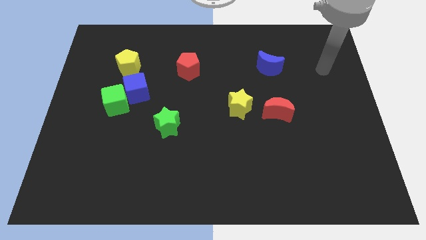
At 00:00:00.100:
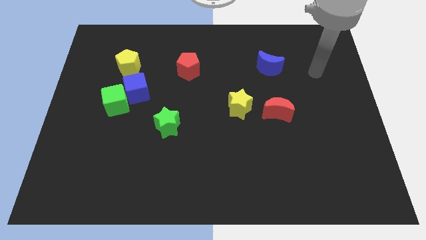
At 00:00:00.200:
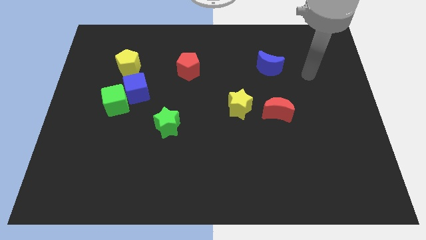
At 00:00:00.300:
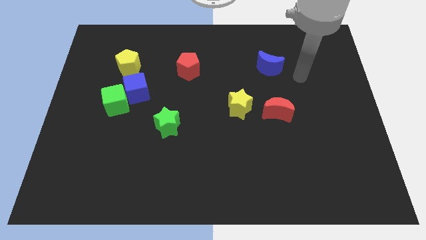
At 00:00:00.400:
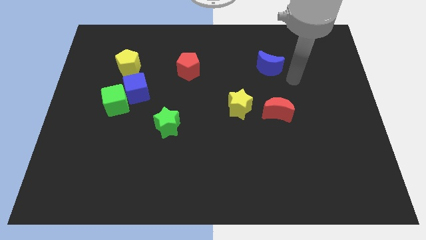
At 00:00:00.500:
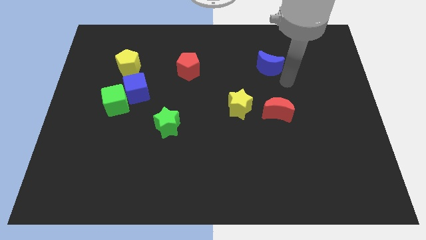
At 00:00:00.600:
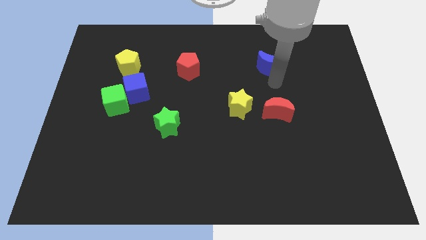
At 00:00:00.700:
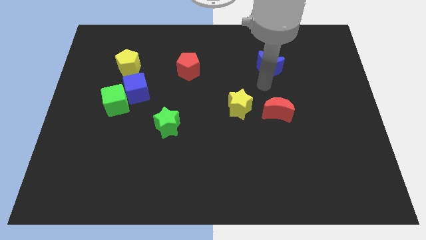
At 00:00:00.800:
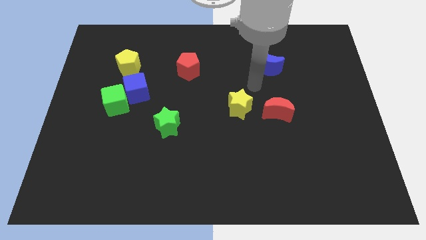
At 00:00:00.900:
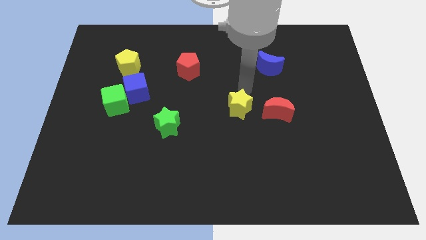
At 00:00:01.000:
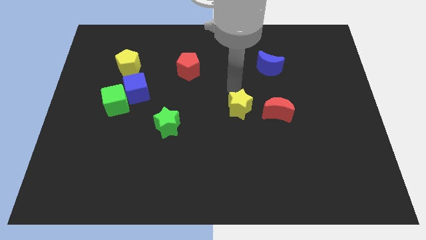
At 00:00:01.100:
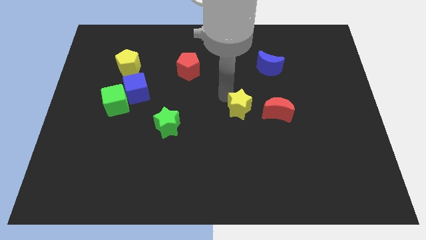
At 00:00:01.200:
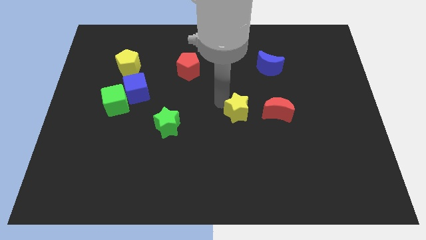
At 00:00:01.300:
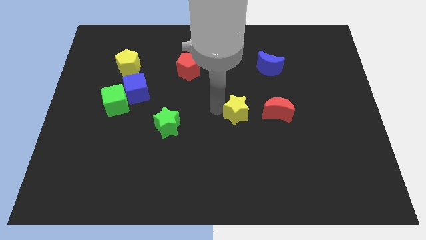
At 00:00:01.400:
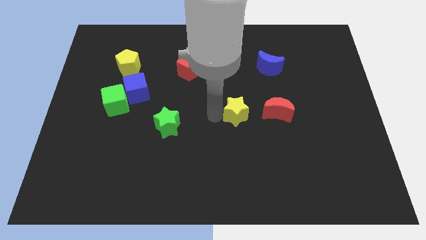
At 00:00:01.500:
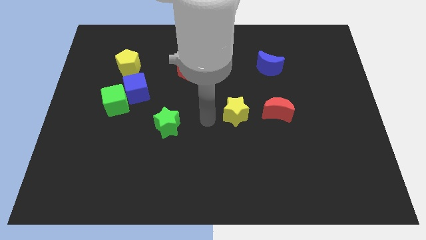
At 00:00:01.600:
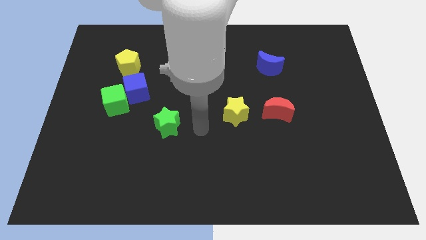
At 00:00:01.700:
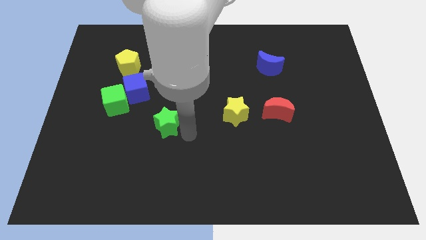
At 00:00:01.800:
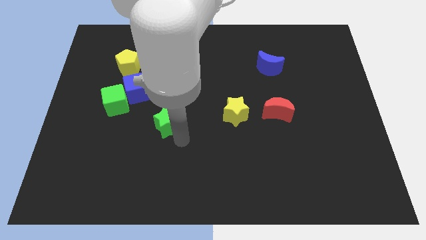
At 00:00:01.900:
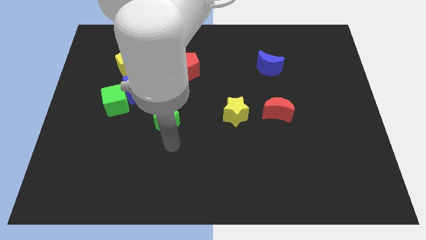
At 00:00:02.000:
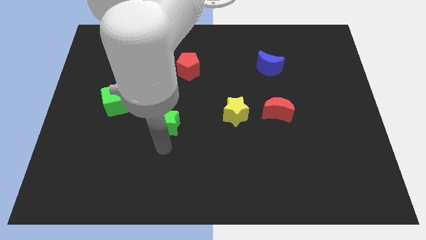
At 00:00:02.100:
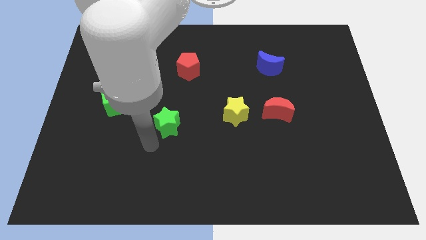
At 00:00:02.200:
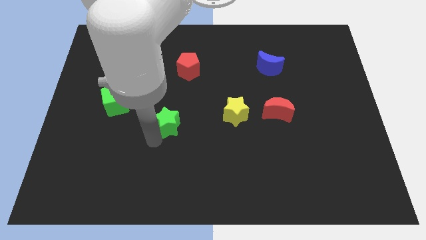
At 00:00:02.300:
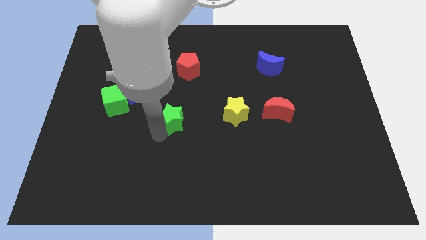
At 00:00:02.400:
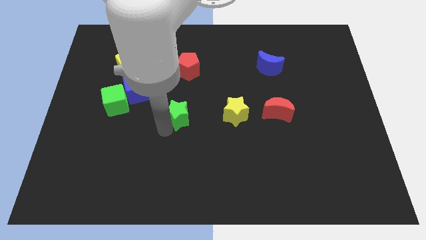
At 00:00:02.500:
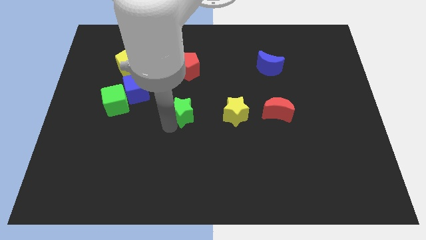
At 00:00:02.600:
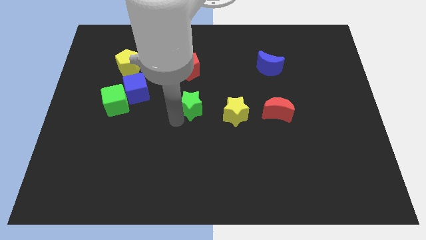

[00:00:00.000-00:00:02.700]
slightly move the green star up and to the right diagonally

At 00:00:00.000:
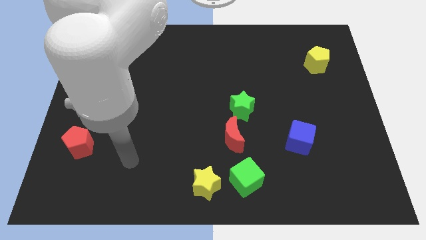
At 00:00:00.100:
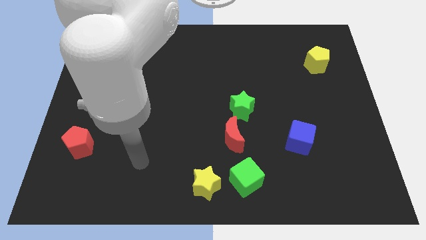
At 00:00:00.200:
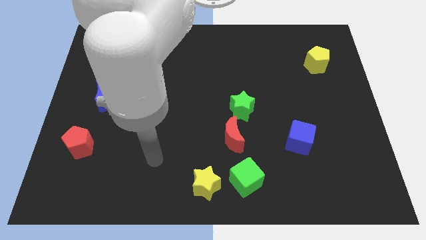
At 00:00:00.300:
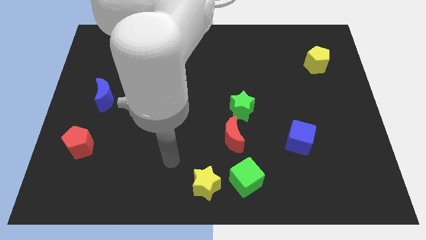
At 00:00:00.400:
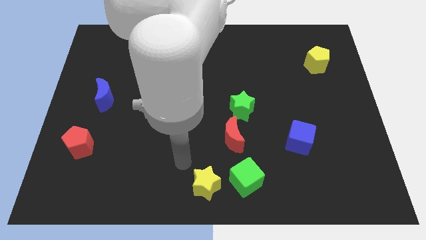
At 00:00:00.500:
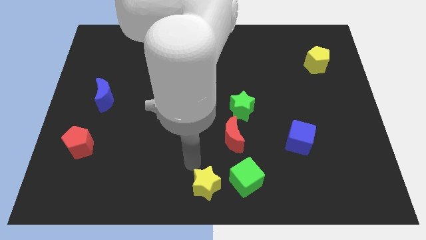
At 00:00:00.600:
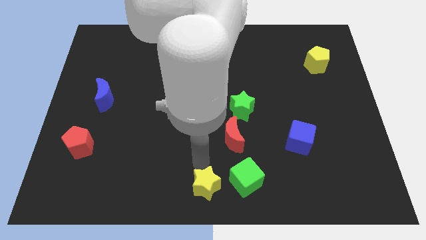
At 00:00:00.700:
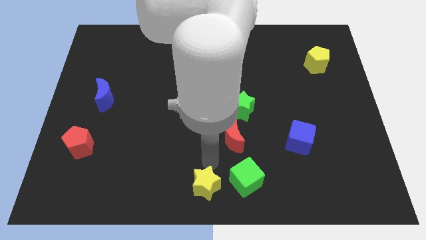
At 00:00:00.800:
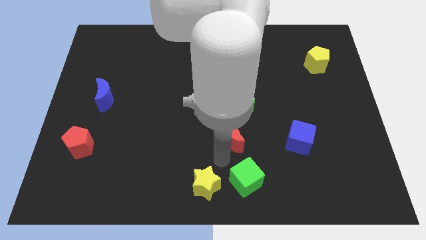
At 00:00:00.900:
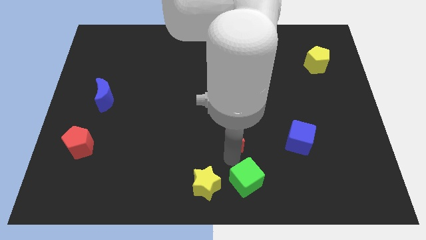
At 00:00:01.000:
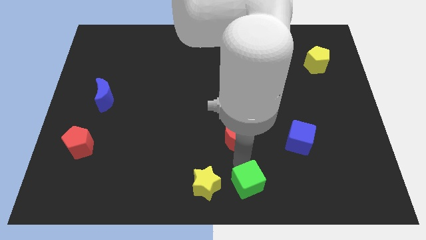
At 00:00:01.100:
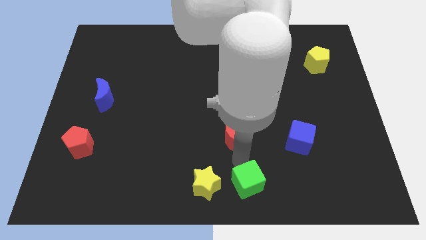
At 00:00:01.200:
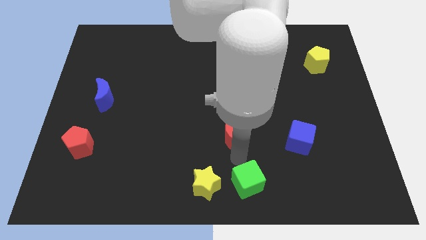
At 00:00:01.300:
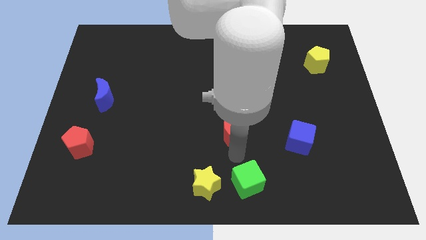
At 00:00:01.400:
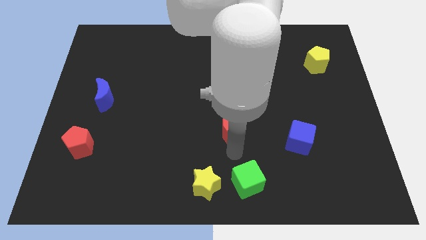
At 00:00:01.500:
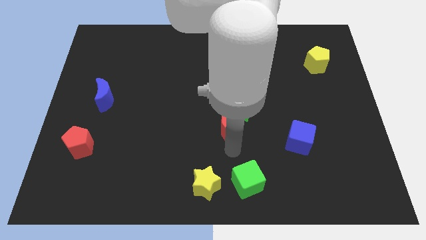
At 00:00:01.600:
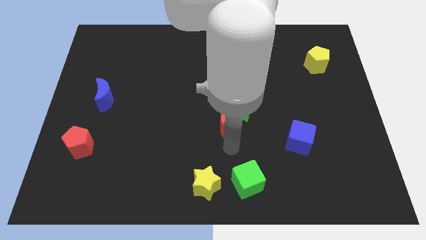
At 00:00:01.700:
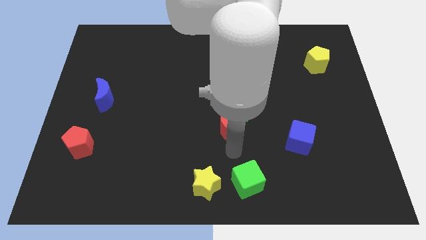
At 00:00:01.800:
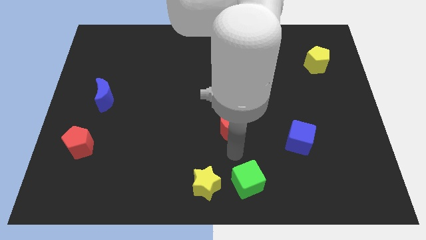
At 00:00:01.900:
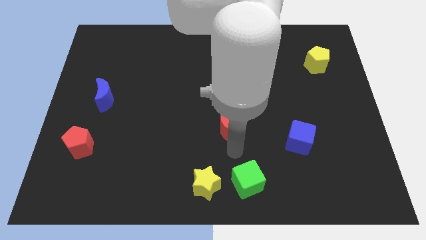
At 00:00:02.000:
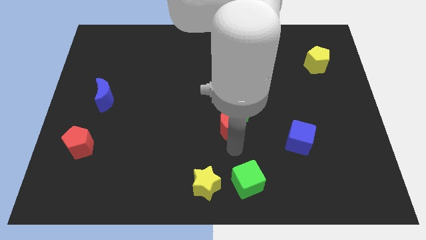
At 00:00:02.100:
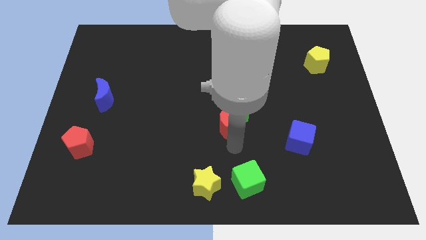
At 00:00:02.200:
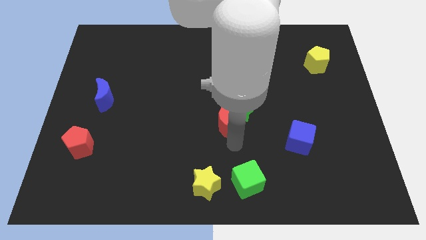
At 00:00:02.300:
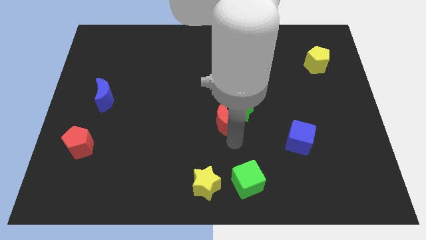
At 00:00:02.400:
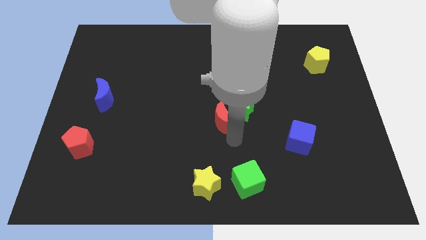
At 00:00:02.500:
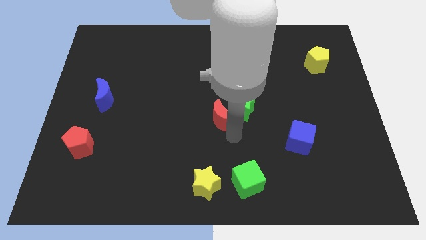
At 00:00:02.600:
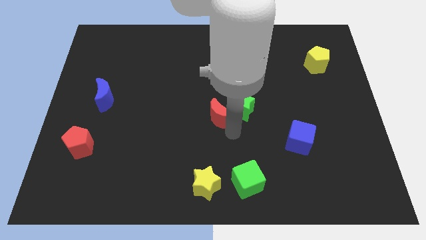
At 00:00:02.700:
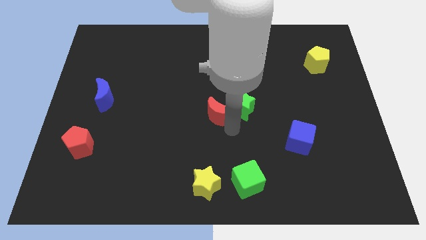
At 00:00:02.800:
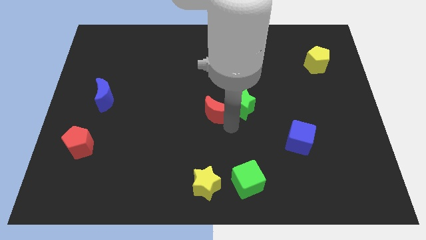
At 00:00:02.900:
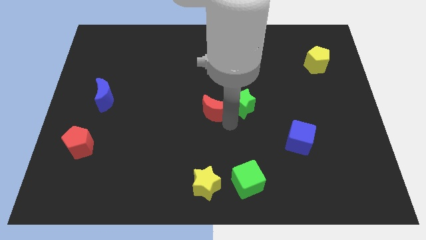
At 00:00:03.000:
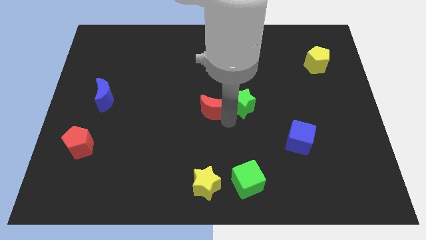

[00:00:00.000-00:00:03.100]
slide the red moon upwards a little bit

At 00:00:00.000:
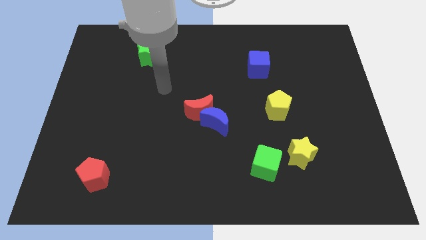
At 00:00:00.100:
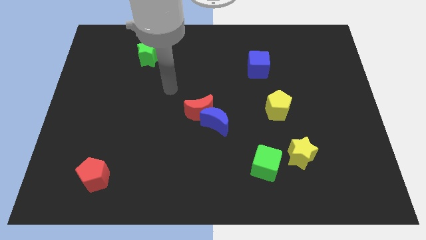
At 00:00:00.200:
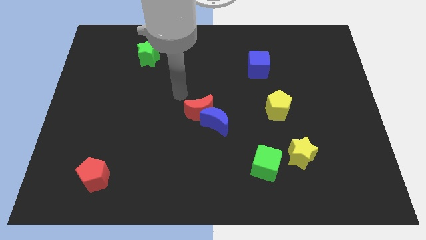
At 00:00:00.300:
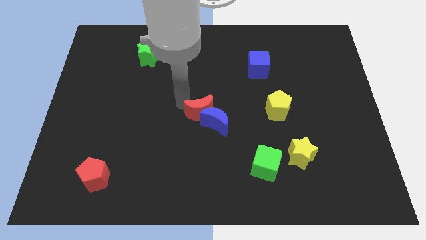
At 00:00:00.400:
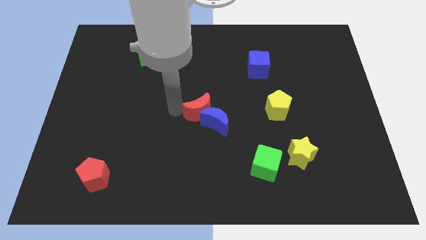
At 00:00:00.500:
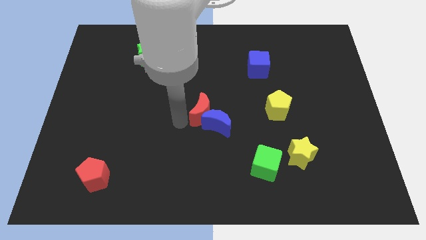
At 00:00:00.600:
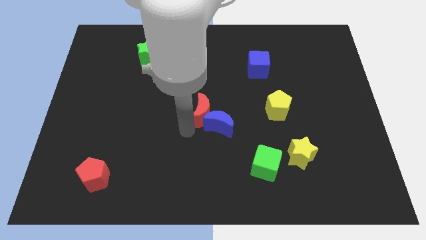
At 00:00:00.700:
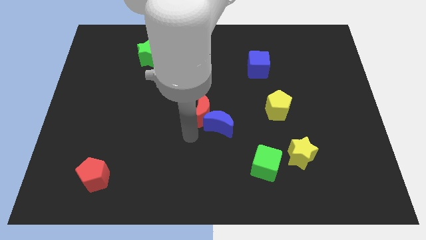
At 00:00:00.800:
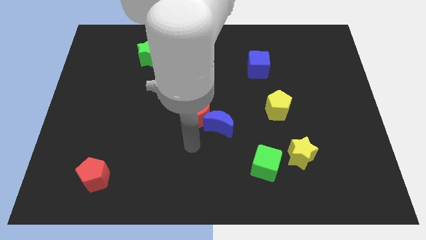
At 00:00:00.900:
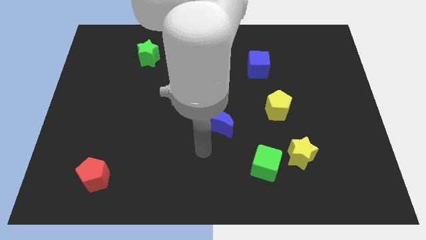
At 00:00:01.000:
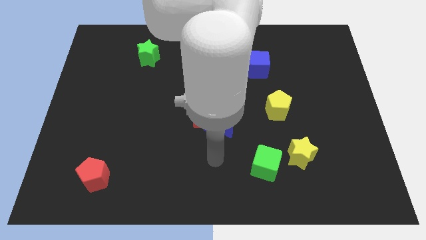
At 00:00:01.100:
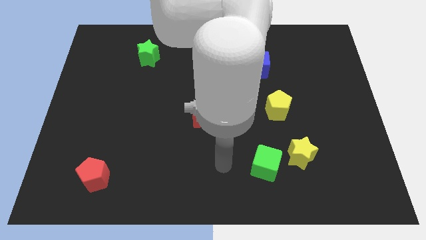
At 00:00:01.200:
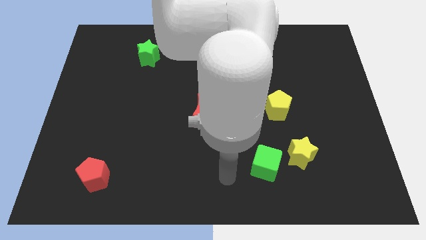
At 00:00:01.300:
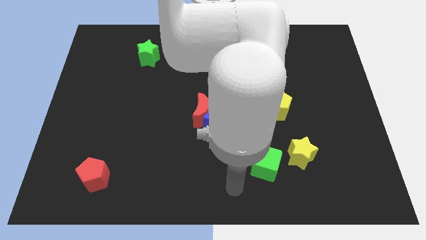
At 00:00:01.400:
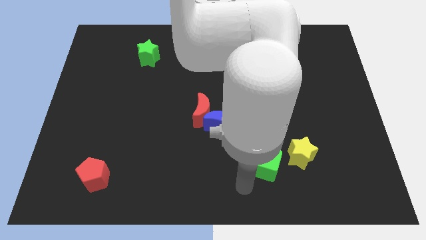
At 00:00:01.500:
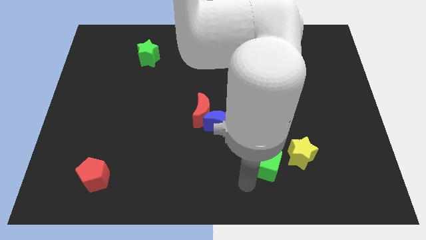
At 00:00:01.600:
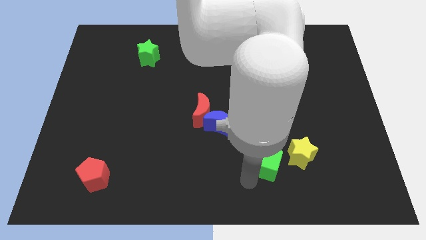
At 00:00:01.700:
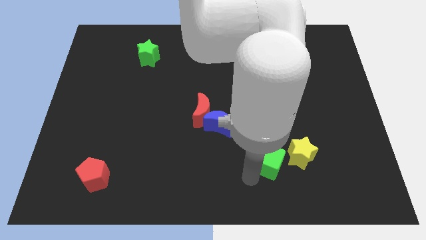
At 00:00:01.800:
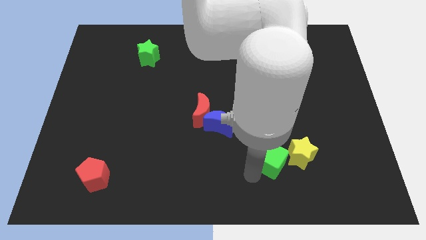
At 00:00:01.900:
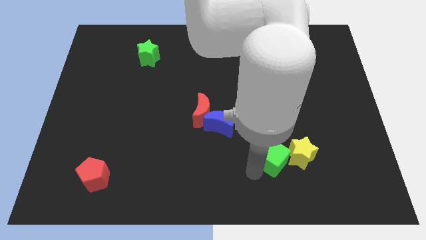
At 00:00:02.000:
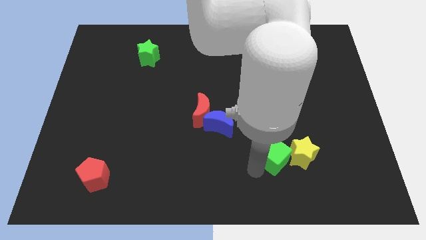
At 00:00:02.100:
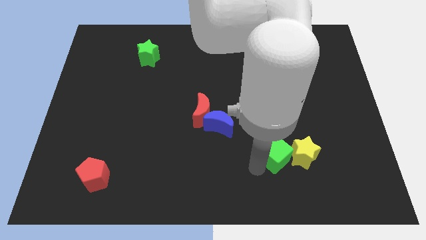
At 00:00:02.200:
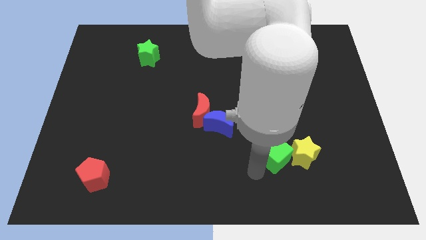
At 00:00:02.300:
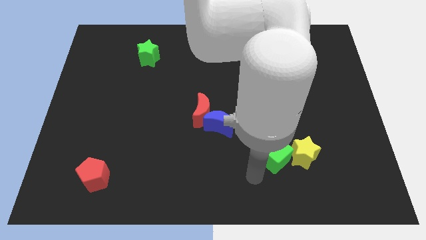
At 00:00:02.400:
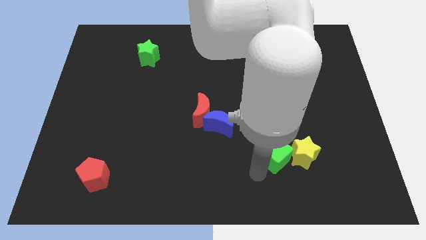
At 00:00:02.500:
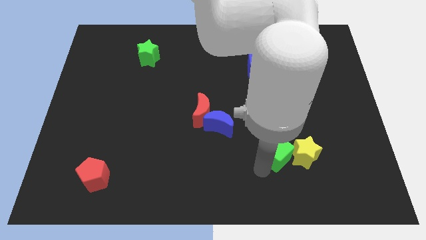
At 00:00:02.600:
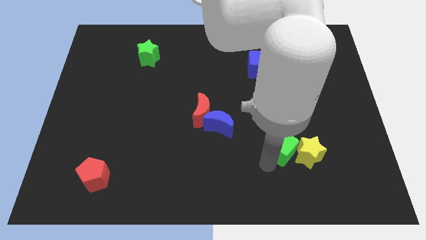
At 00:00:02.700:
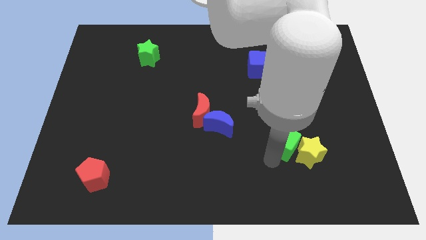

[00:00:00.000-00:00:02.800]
move the green cube somewhat upwards and right
